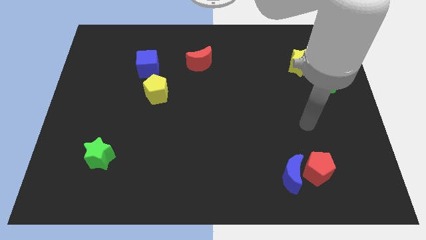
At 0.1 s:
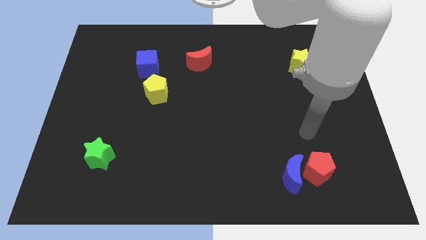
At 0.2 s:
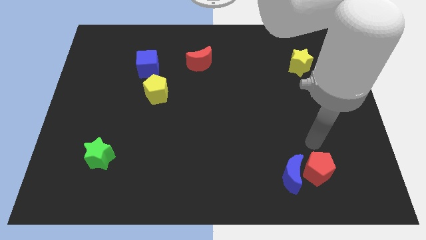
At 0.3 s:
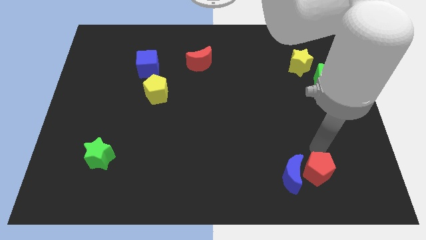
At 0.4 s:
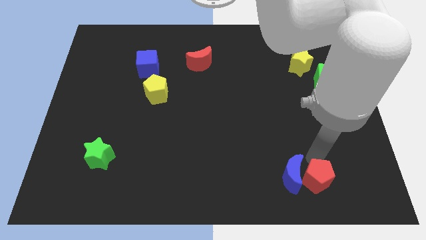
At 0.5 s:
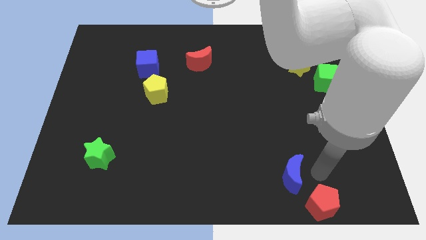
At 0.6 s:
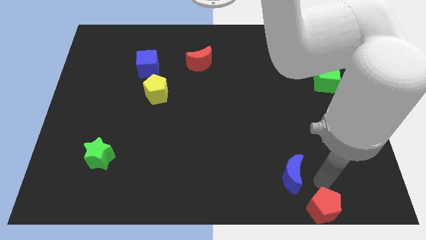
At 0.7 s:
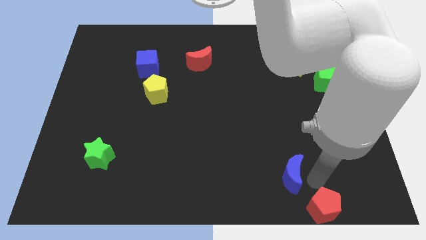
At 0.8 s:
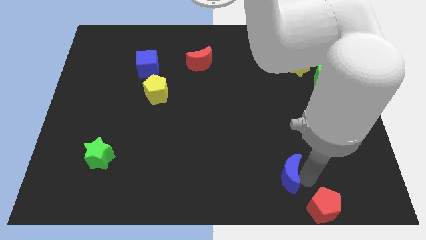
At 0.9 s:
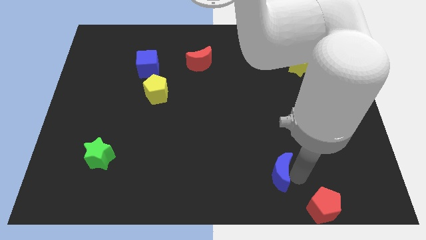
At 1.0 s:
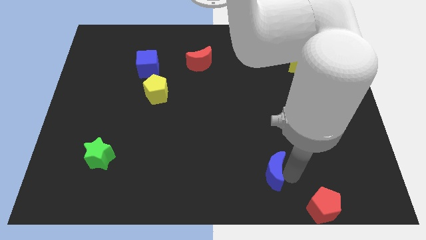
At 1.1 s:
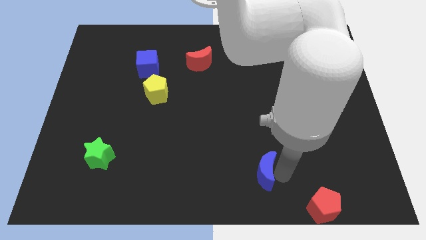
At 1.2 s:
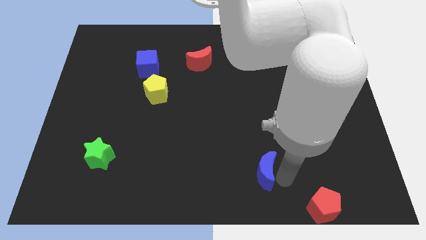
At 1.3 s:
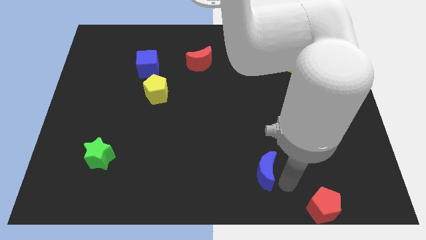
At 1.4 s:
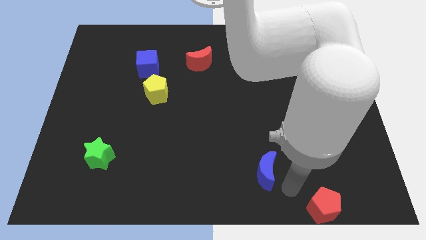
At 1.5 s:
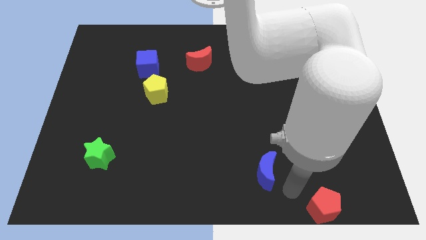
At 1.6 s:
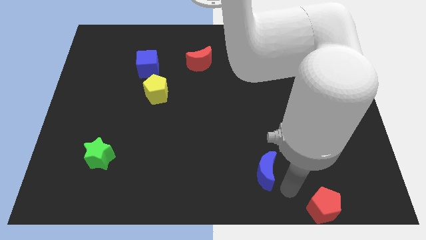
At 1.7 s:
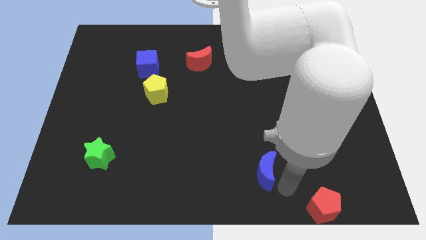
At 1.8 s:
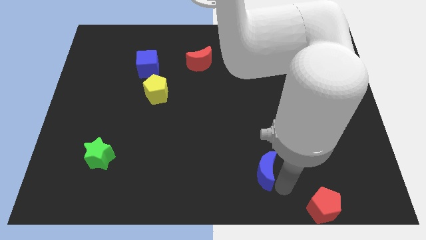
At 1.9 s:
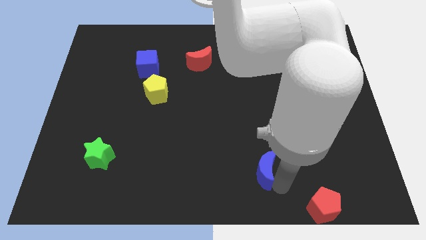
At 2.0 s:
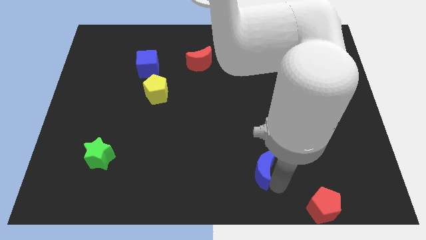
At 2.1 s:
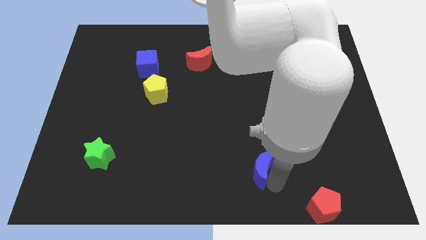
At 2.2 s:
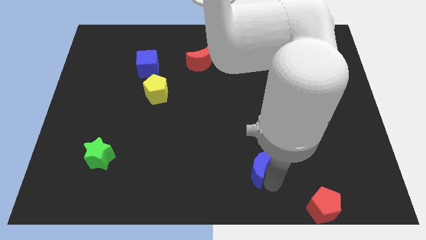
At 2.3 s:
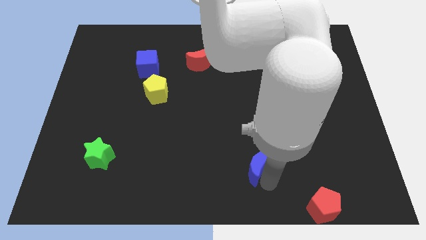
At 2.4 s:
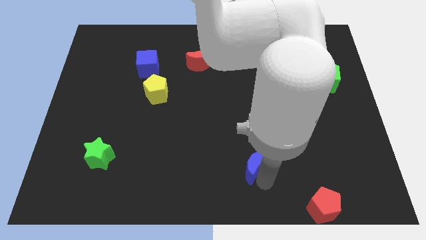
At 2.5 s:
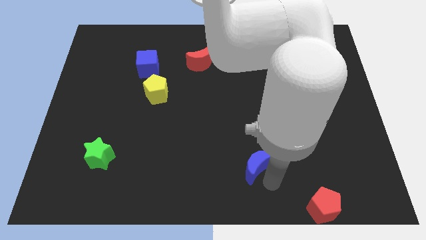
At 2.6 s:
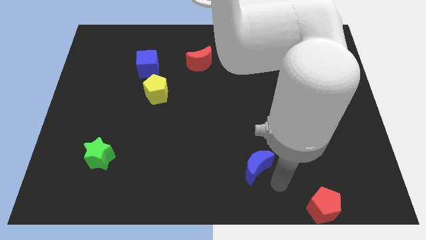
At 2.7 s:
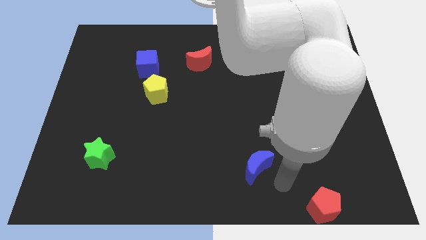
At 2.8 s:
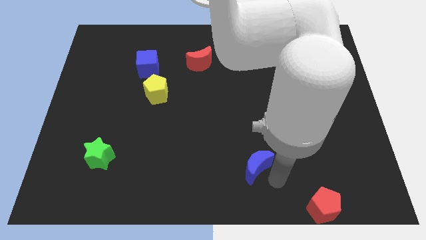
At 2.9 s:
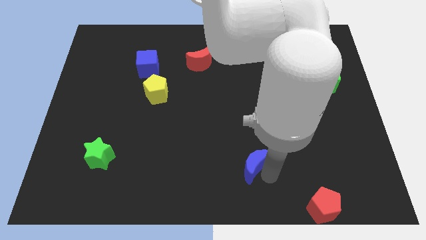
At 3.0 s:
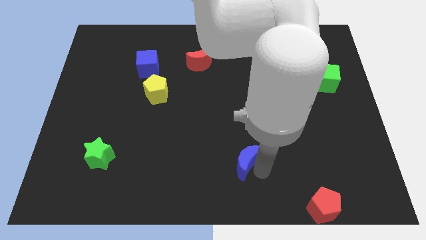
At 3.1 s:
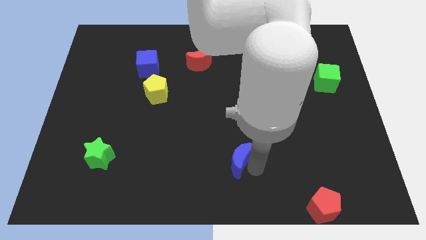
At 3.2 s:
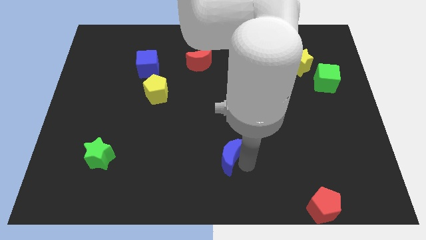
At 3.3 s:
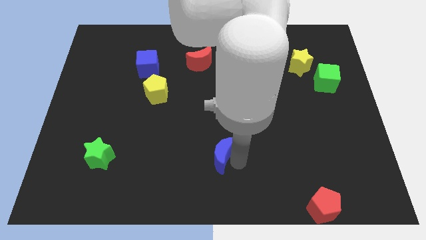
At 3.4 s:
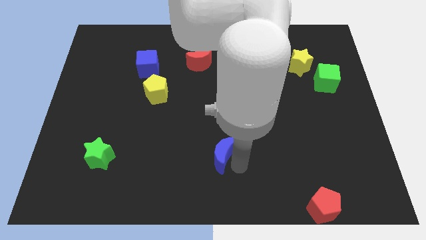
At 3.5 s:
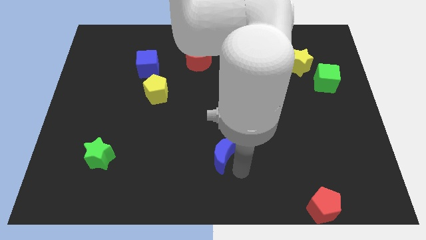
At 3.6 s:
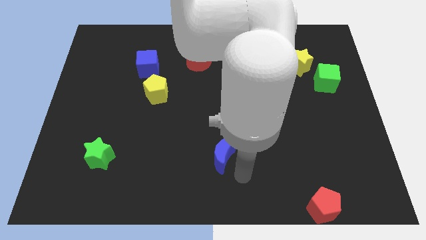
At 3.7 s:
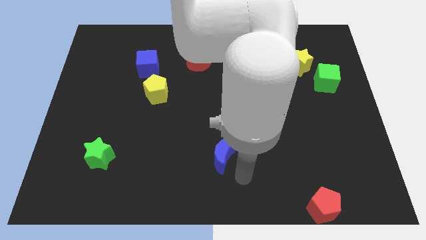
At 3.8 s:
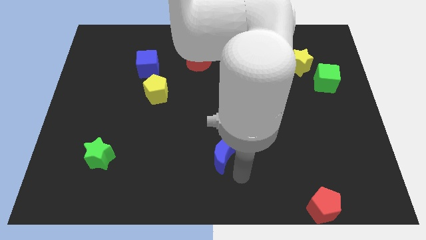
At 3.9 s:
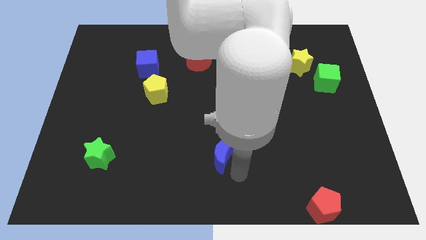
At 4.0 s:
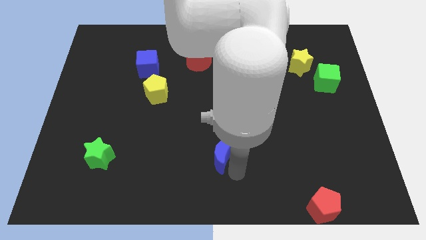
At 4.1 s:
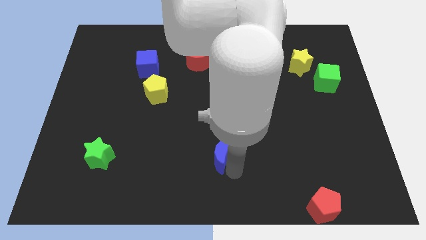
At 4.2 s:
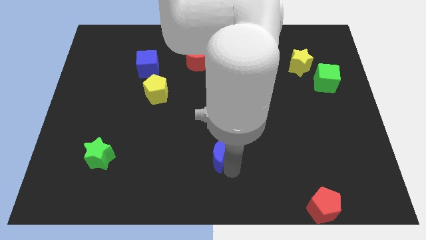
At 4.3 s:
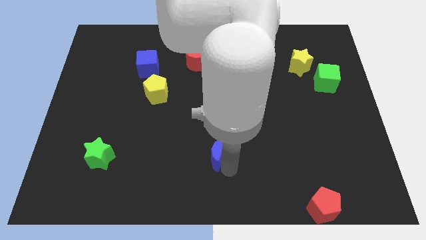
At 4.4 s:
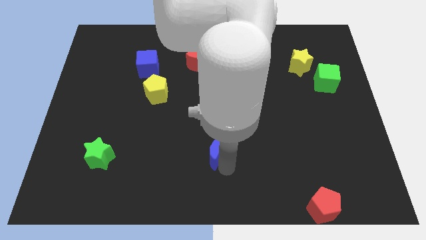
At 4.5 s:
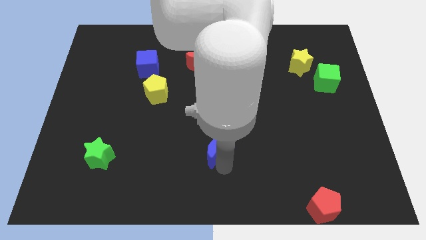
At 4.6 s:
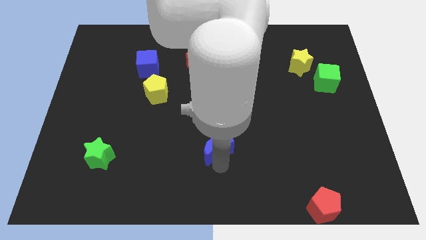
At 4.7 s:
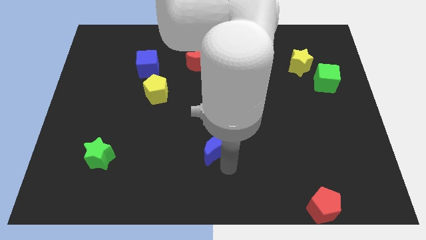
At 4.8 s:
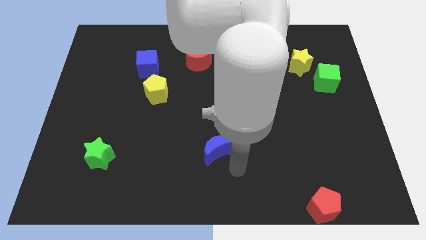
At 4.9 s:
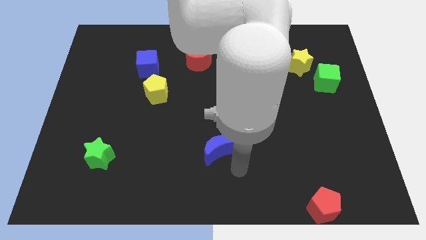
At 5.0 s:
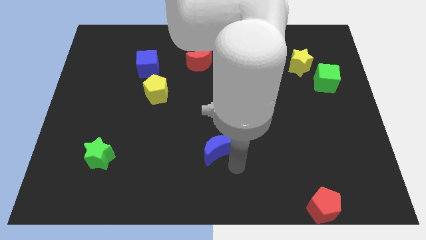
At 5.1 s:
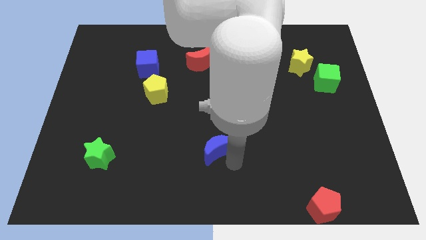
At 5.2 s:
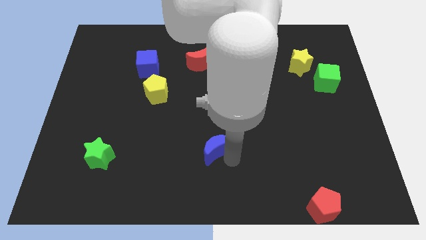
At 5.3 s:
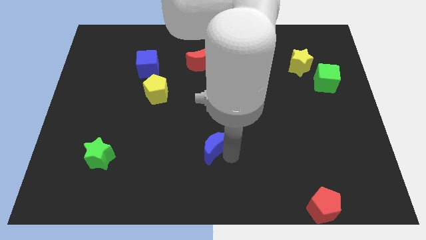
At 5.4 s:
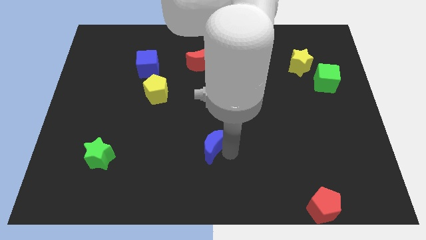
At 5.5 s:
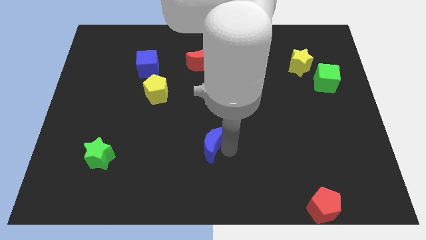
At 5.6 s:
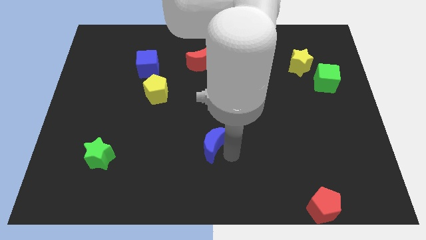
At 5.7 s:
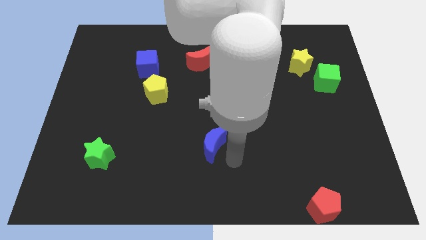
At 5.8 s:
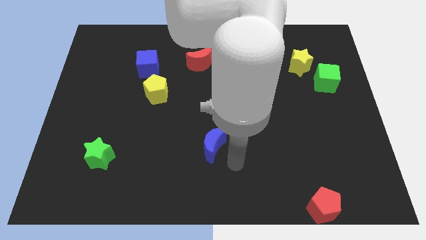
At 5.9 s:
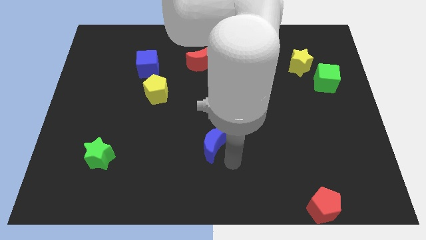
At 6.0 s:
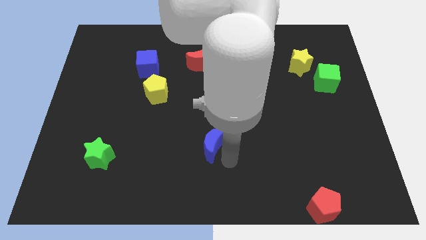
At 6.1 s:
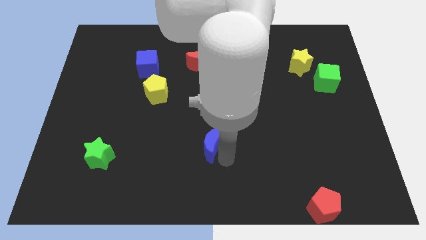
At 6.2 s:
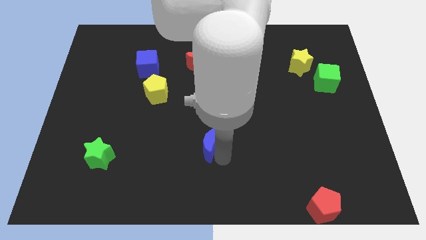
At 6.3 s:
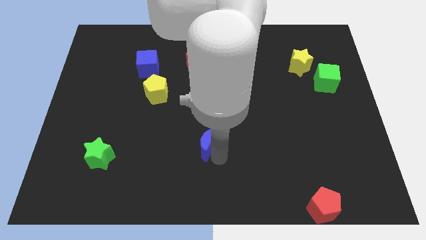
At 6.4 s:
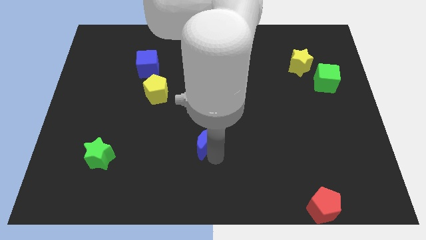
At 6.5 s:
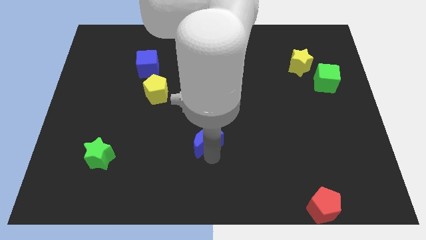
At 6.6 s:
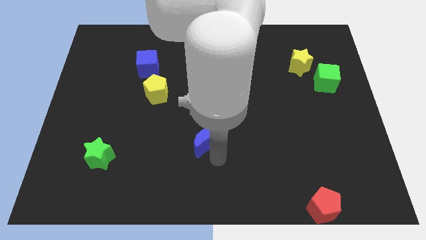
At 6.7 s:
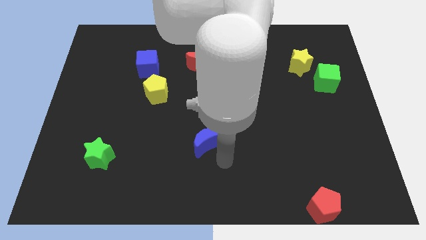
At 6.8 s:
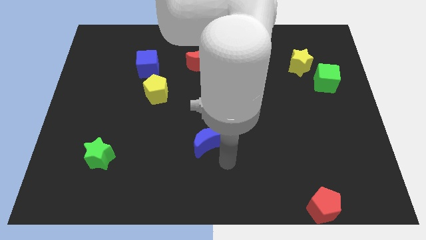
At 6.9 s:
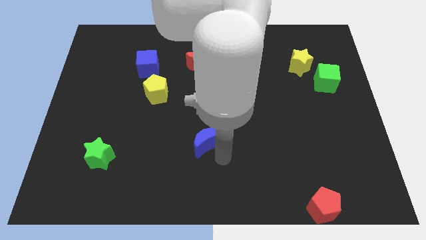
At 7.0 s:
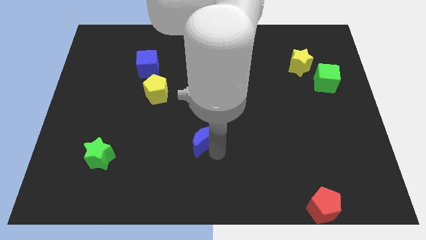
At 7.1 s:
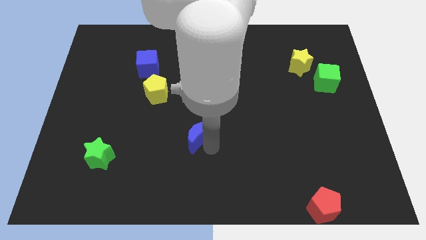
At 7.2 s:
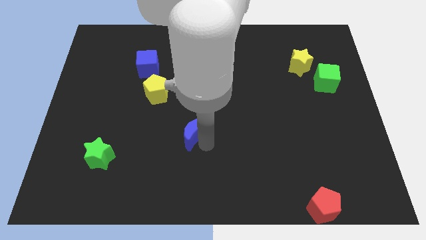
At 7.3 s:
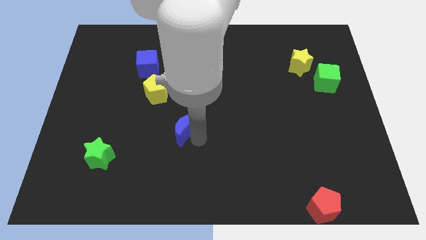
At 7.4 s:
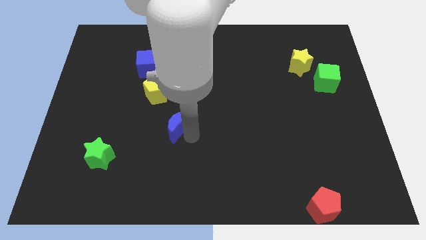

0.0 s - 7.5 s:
put the blue moon to the bottom right of the yellow pentagon
